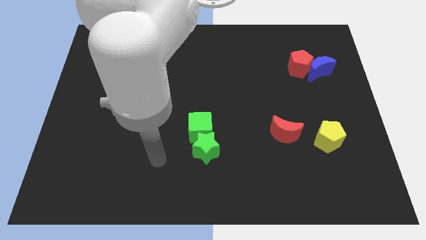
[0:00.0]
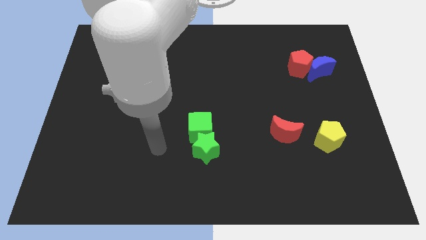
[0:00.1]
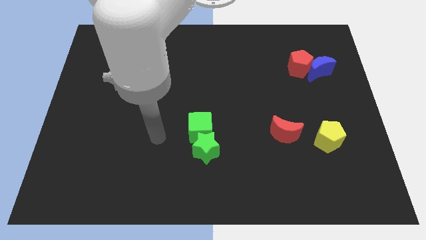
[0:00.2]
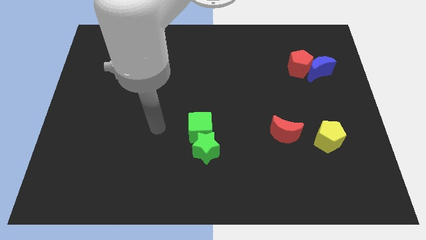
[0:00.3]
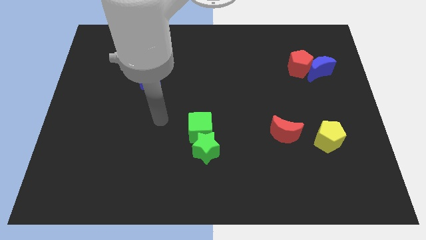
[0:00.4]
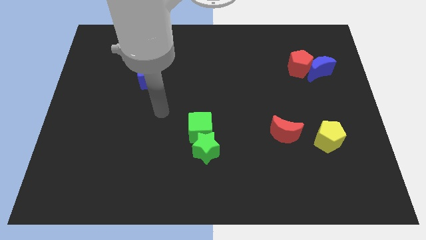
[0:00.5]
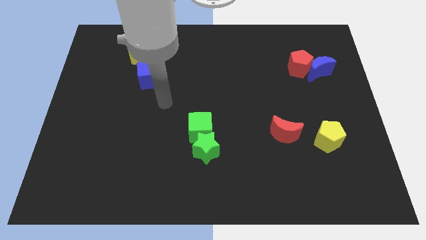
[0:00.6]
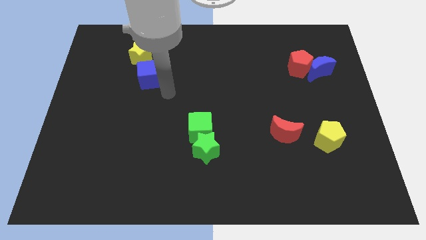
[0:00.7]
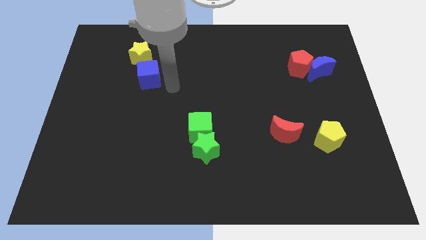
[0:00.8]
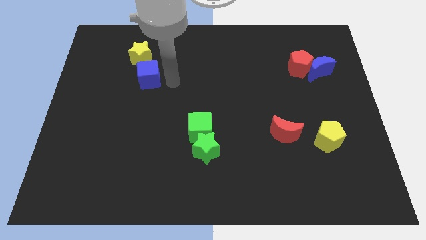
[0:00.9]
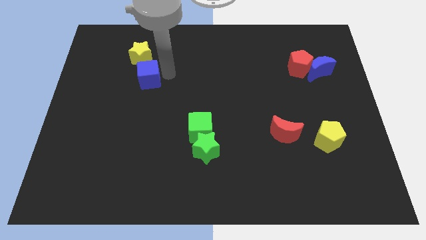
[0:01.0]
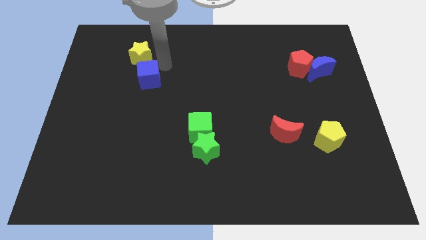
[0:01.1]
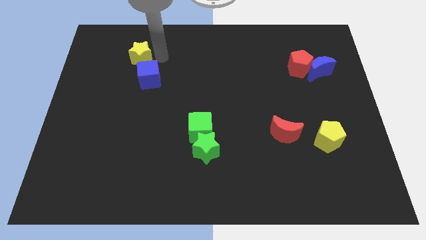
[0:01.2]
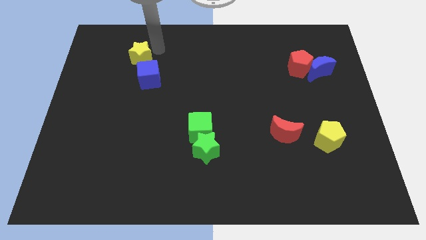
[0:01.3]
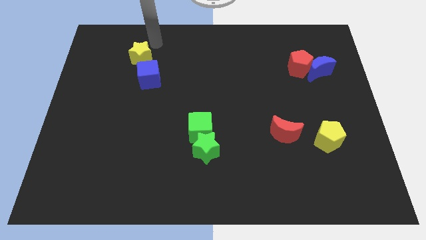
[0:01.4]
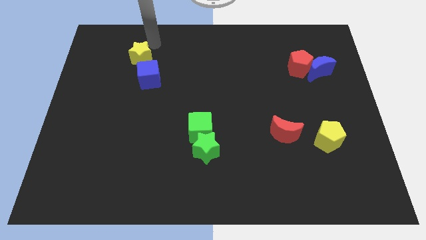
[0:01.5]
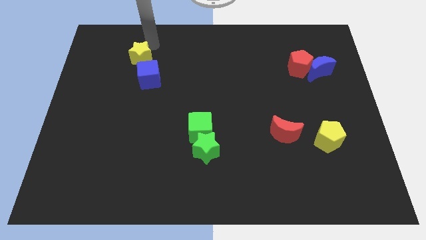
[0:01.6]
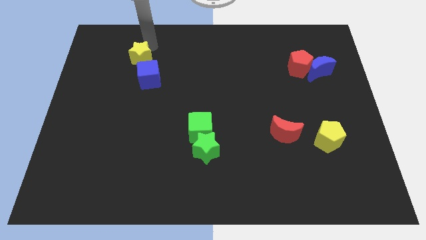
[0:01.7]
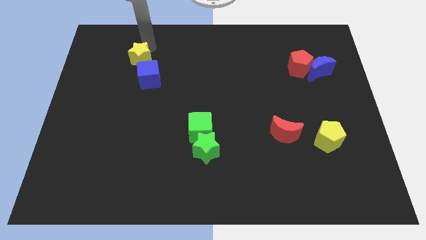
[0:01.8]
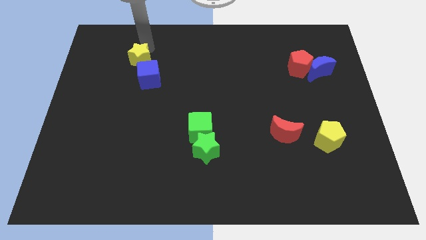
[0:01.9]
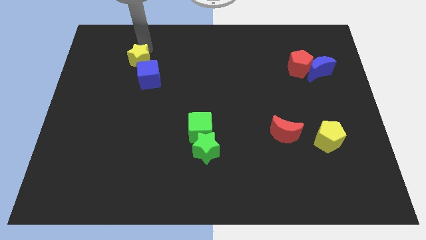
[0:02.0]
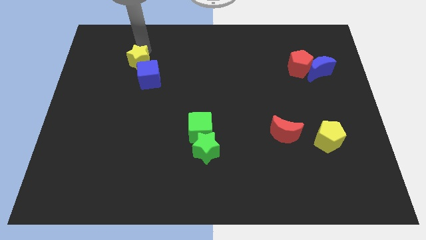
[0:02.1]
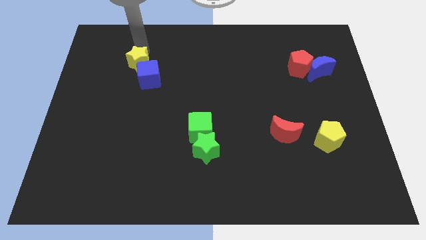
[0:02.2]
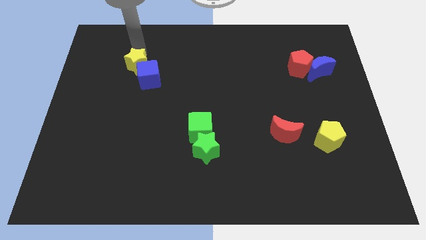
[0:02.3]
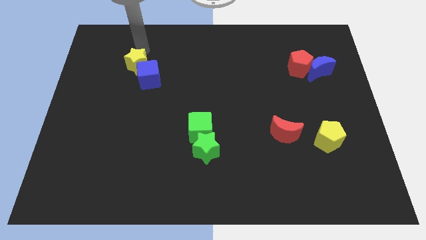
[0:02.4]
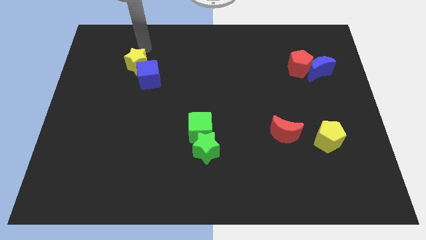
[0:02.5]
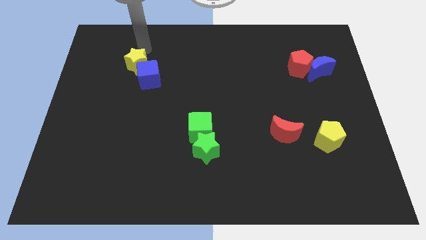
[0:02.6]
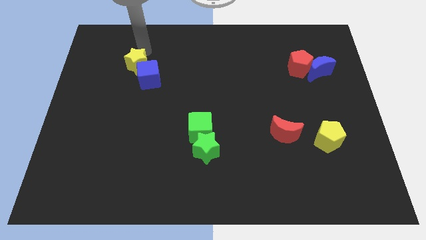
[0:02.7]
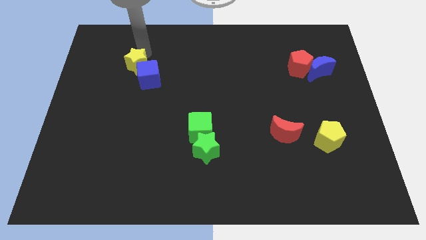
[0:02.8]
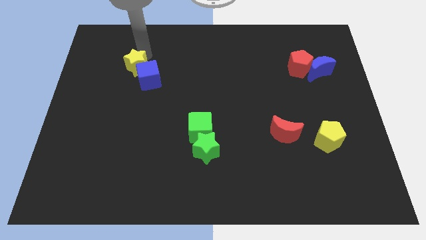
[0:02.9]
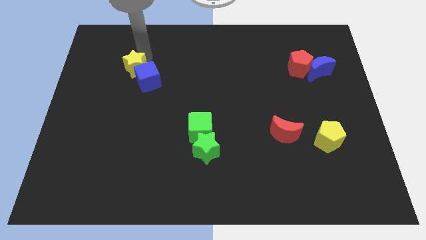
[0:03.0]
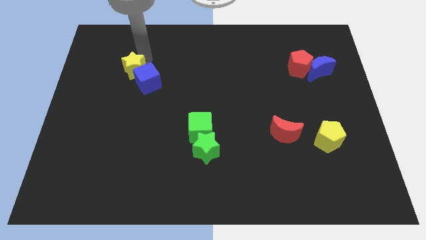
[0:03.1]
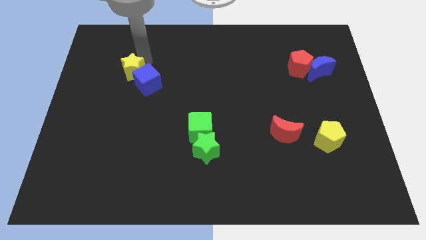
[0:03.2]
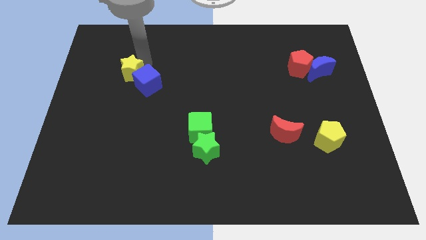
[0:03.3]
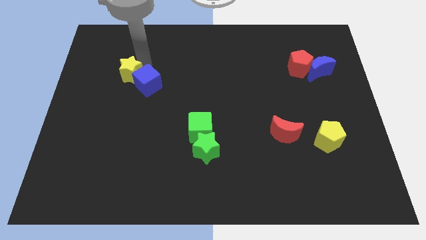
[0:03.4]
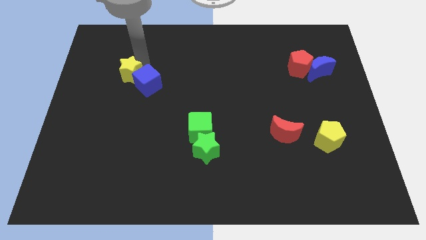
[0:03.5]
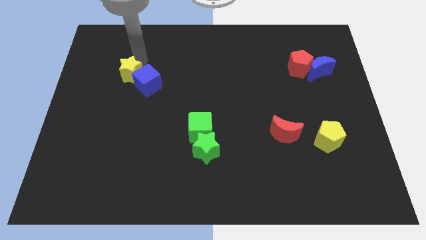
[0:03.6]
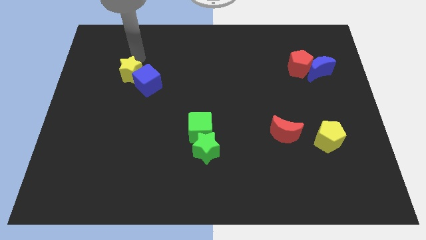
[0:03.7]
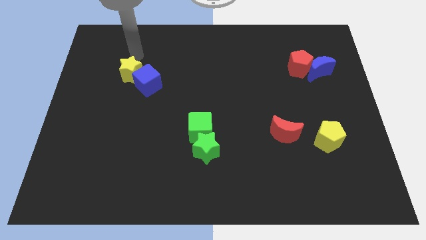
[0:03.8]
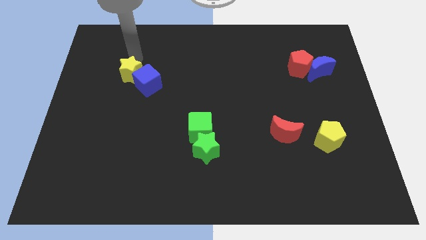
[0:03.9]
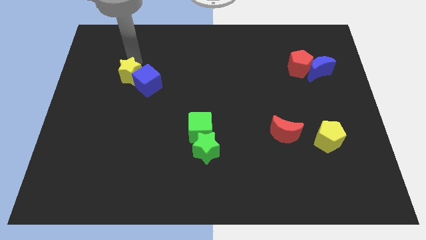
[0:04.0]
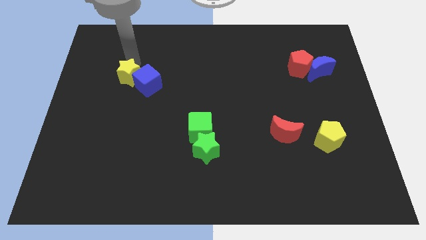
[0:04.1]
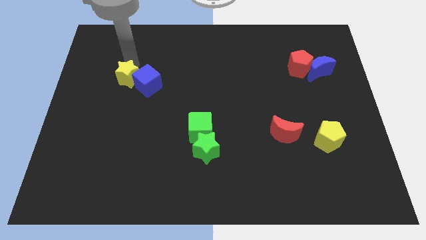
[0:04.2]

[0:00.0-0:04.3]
slide the yellow star downwards somewhat

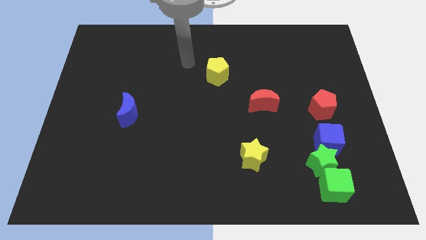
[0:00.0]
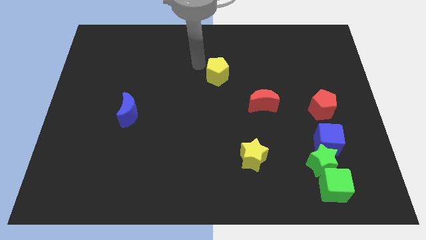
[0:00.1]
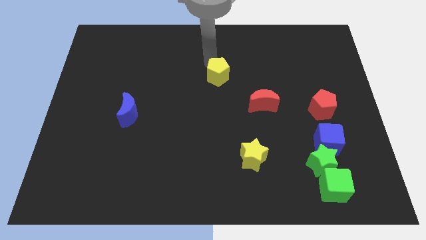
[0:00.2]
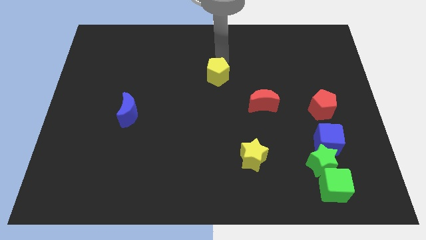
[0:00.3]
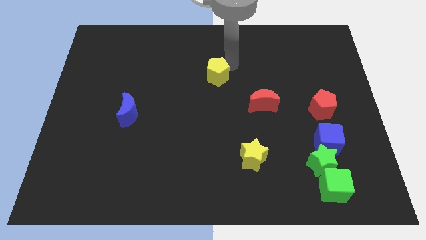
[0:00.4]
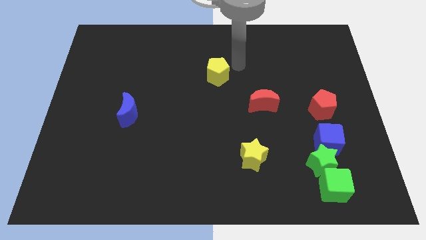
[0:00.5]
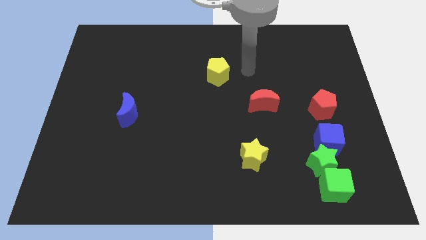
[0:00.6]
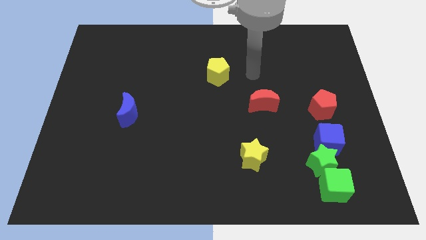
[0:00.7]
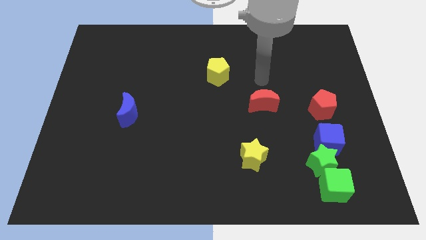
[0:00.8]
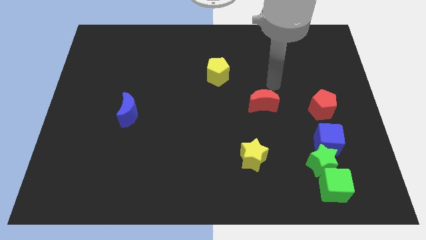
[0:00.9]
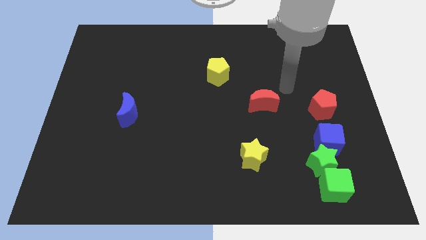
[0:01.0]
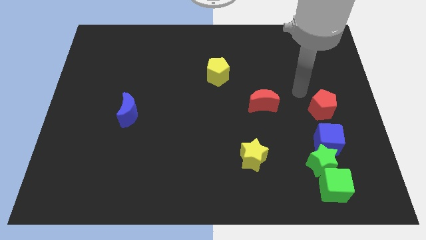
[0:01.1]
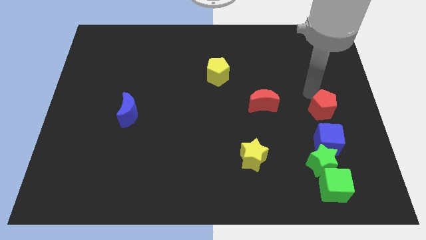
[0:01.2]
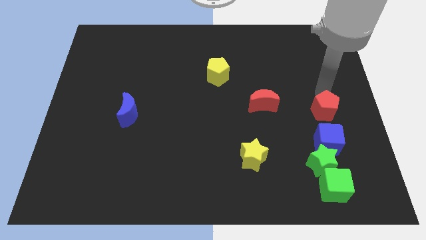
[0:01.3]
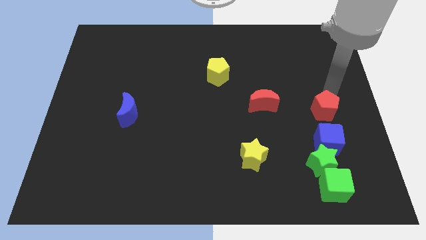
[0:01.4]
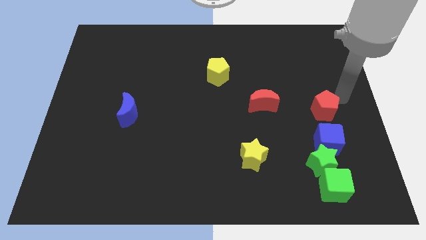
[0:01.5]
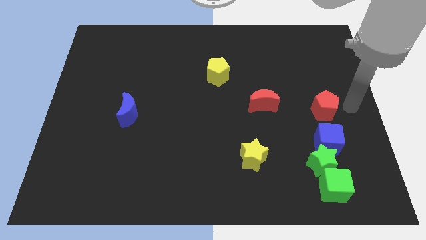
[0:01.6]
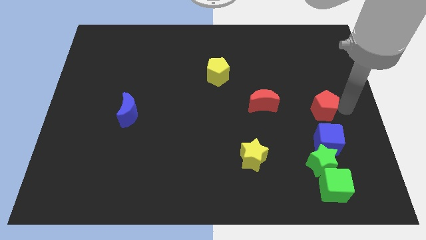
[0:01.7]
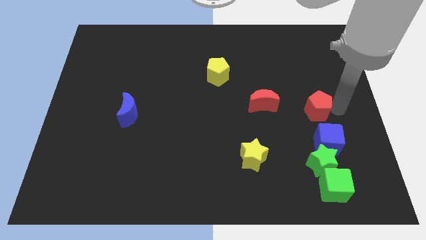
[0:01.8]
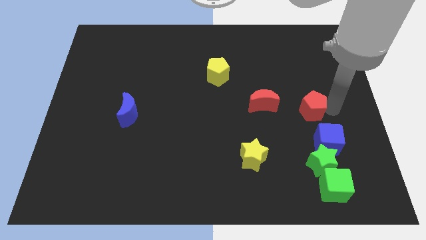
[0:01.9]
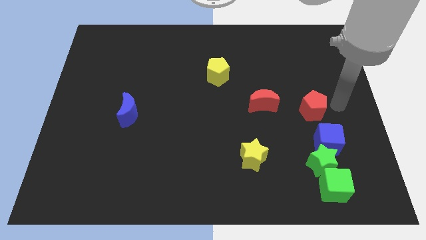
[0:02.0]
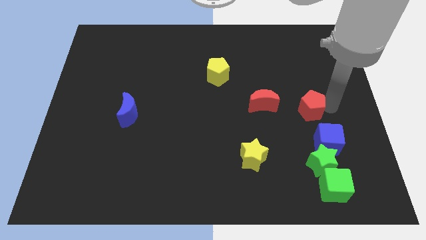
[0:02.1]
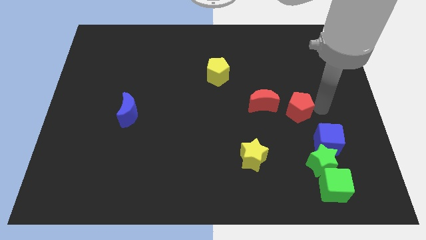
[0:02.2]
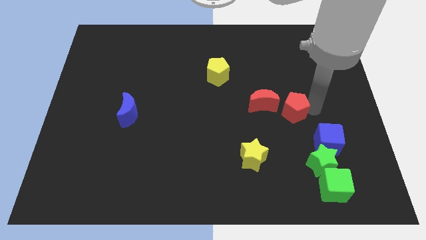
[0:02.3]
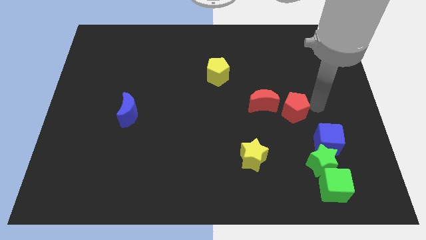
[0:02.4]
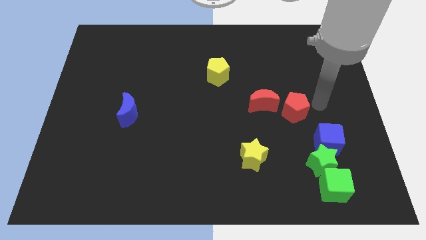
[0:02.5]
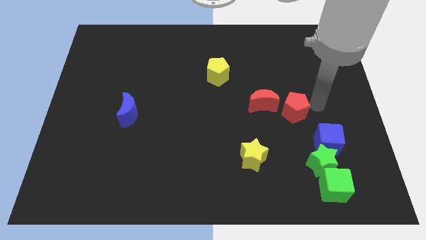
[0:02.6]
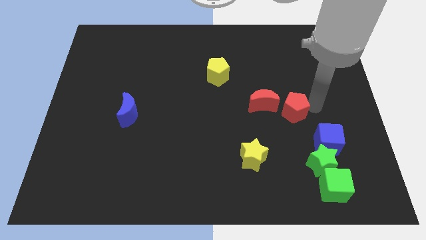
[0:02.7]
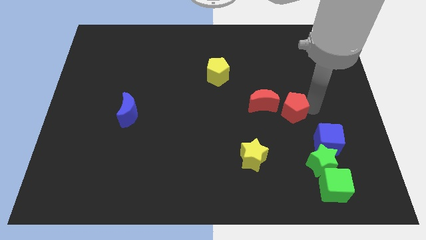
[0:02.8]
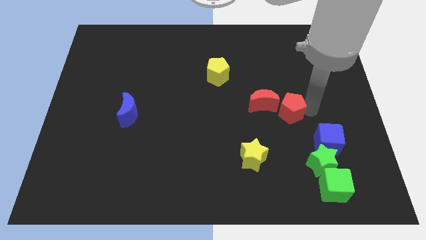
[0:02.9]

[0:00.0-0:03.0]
push the red pentagon a bit left

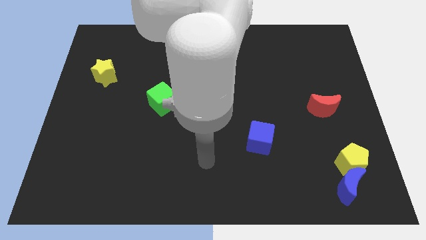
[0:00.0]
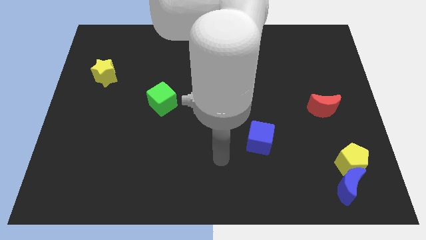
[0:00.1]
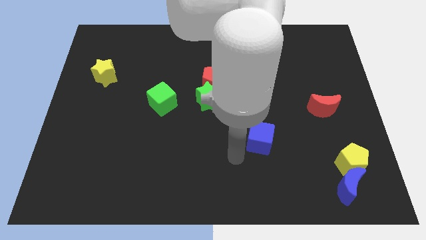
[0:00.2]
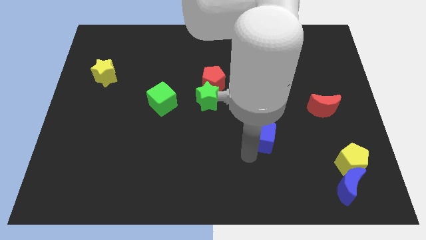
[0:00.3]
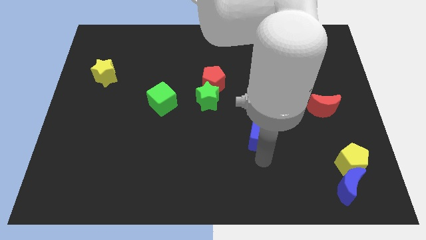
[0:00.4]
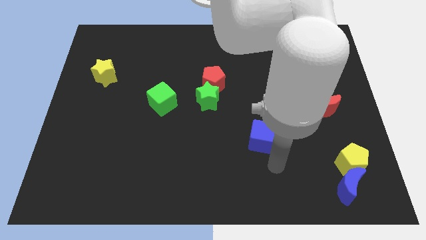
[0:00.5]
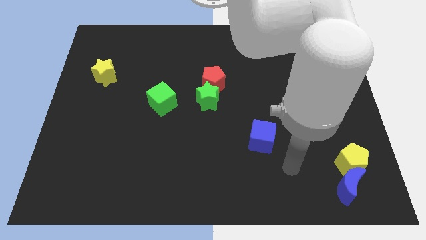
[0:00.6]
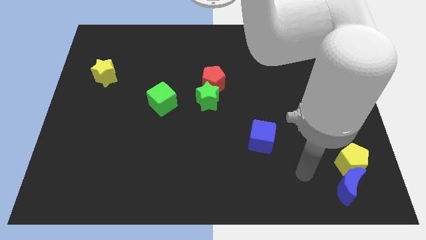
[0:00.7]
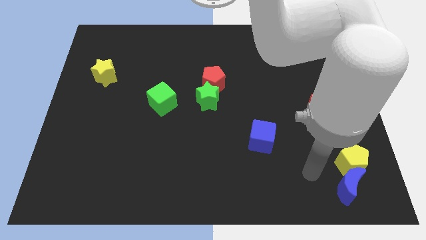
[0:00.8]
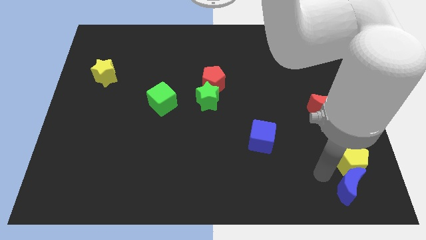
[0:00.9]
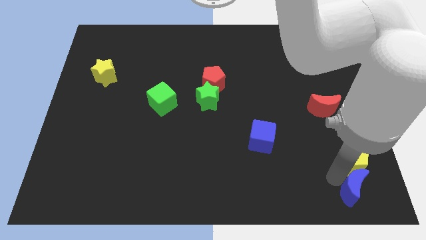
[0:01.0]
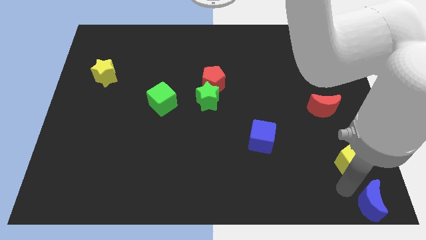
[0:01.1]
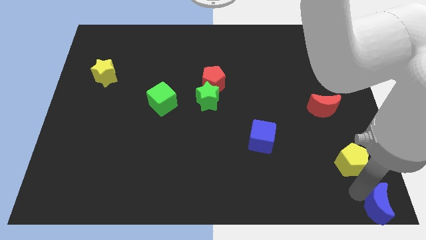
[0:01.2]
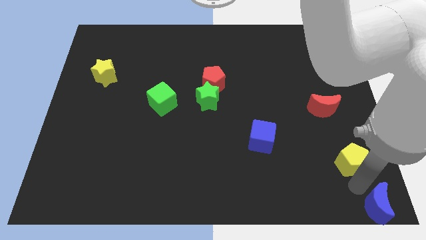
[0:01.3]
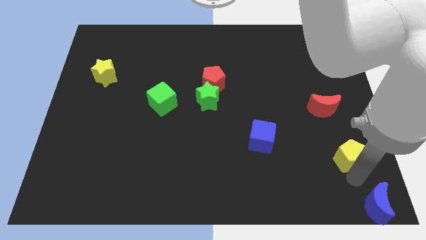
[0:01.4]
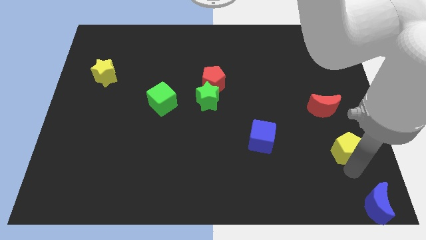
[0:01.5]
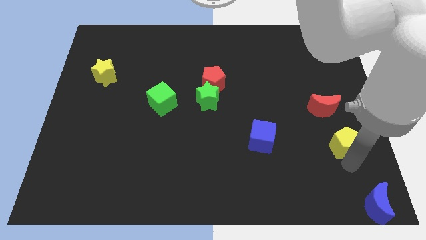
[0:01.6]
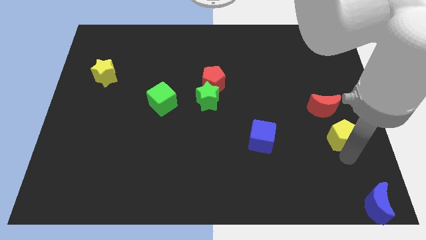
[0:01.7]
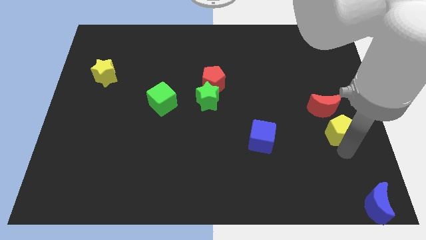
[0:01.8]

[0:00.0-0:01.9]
push the yellow pentagon upwards slightly
